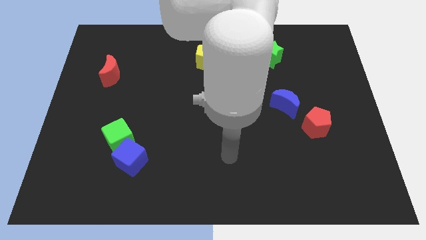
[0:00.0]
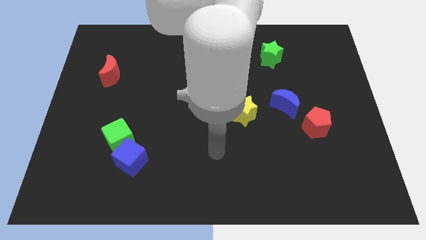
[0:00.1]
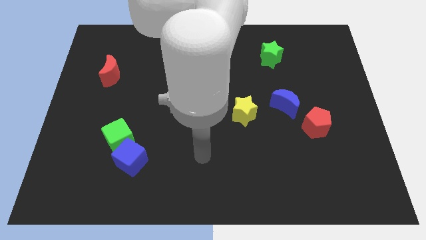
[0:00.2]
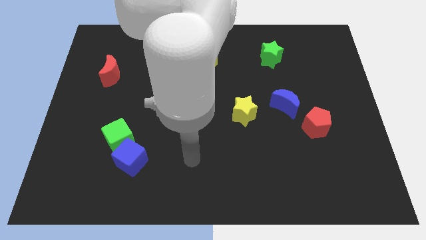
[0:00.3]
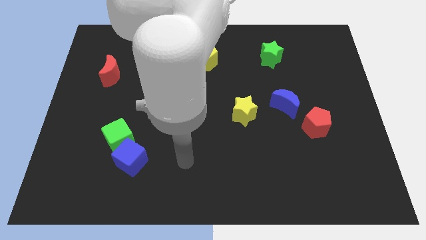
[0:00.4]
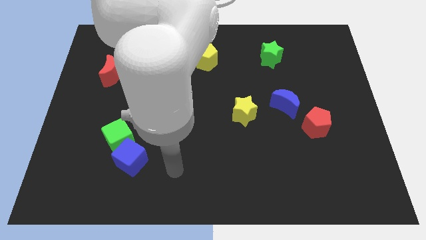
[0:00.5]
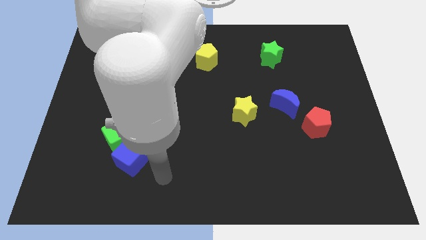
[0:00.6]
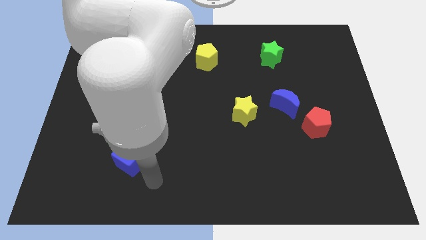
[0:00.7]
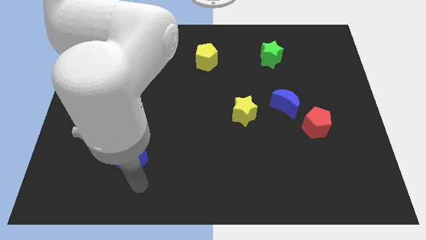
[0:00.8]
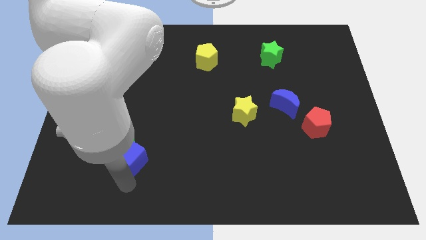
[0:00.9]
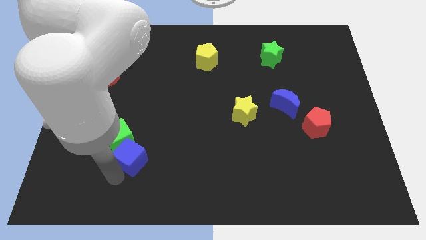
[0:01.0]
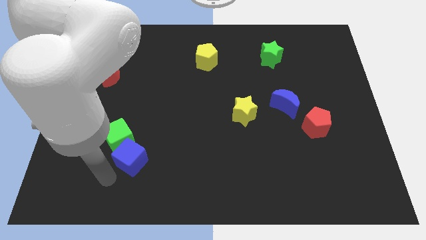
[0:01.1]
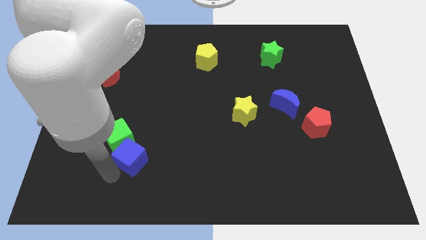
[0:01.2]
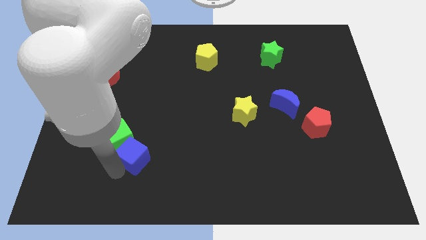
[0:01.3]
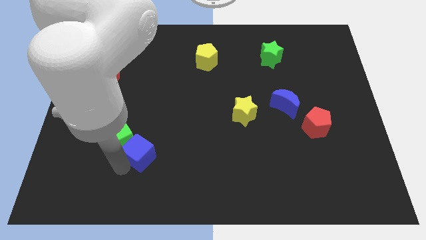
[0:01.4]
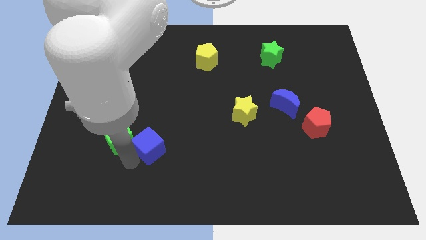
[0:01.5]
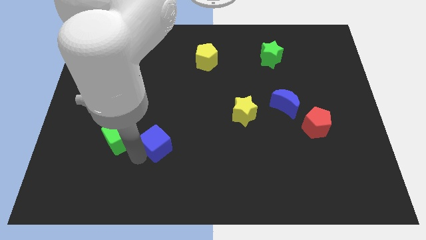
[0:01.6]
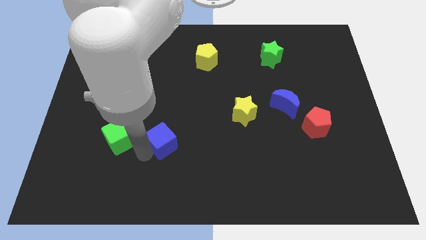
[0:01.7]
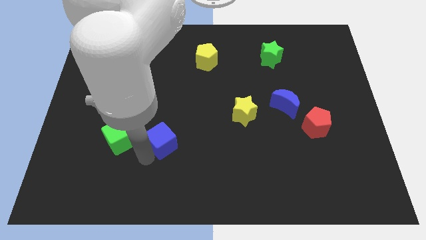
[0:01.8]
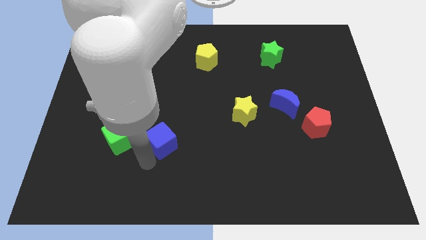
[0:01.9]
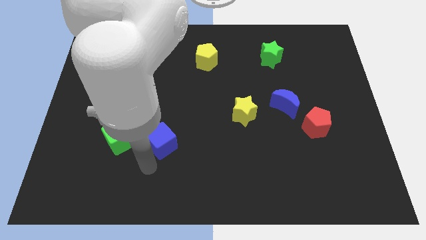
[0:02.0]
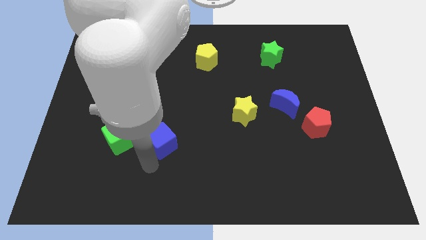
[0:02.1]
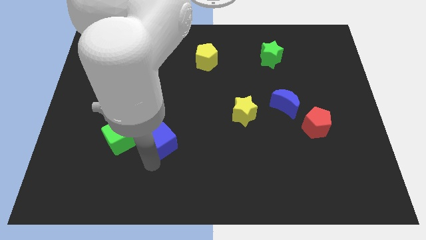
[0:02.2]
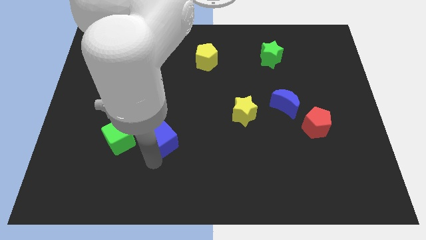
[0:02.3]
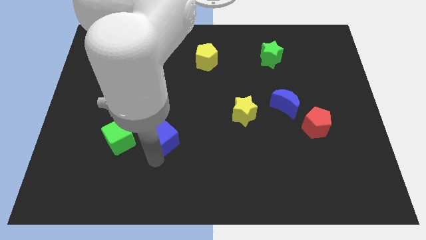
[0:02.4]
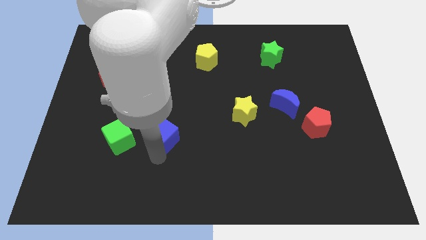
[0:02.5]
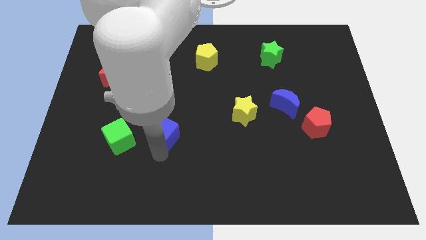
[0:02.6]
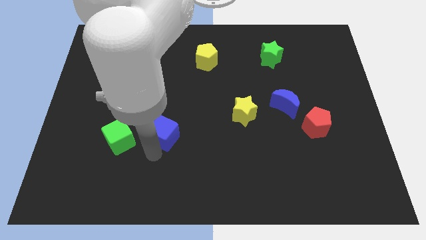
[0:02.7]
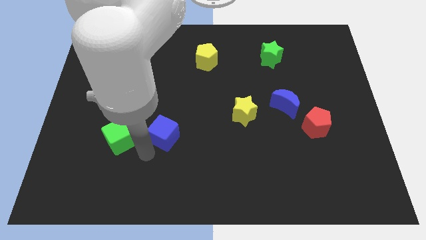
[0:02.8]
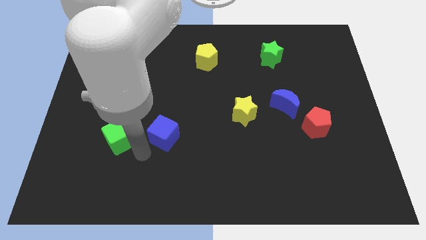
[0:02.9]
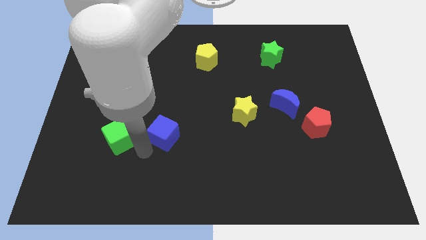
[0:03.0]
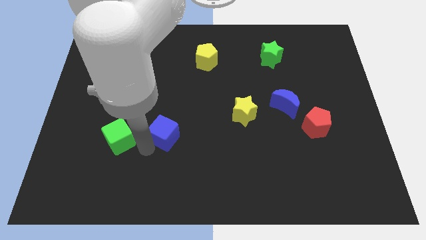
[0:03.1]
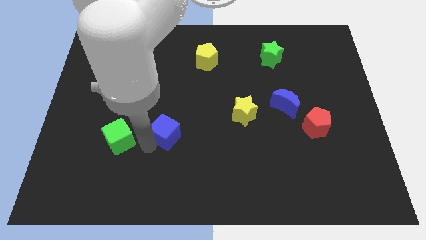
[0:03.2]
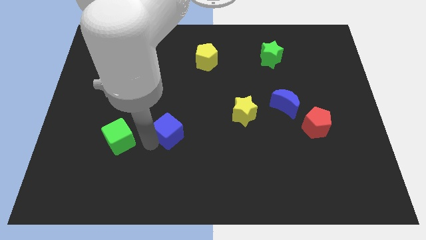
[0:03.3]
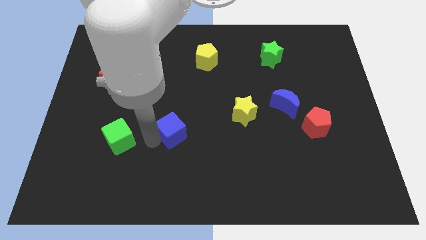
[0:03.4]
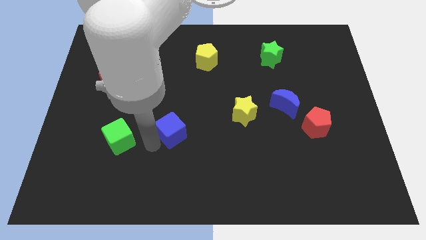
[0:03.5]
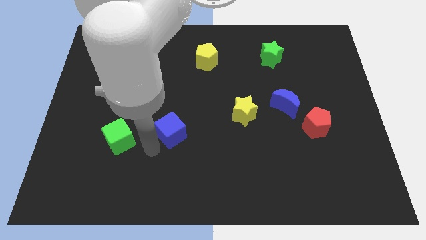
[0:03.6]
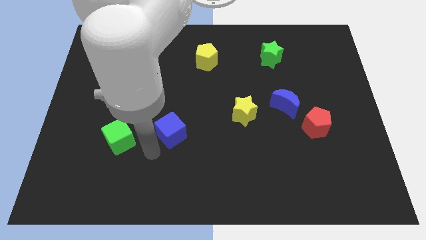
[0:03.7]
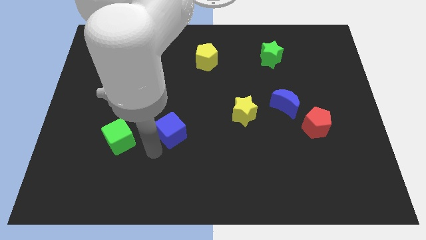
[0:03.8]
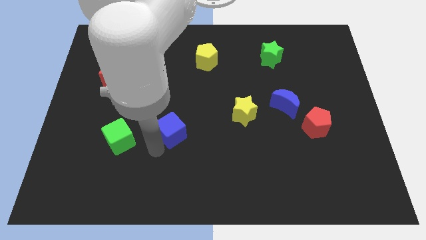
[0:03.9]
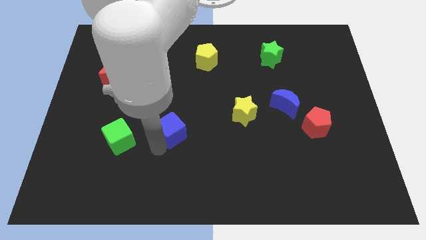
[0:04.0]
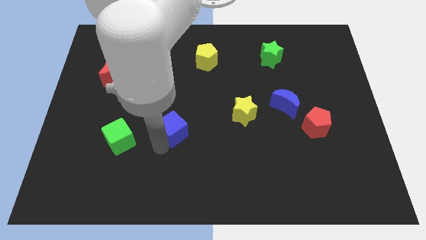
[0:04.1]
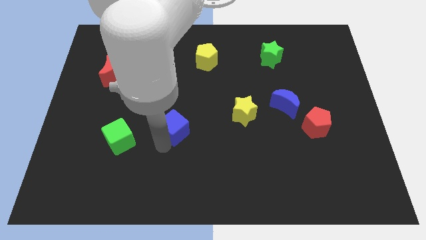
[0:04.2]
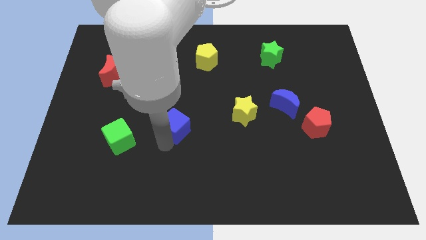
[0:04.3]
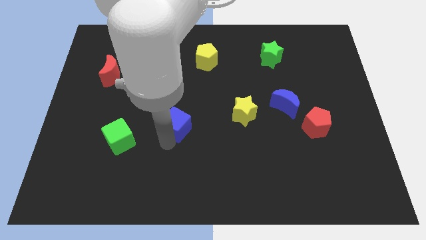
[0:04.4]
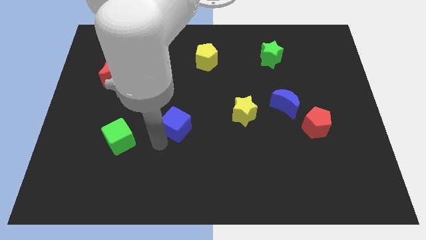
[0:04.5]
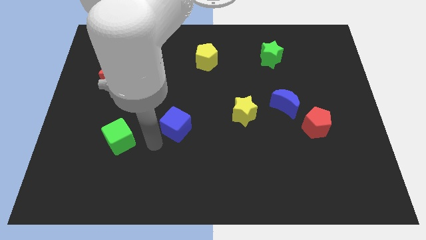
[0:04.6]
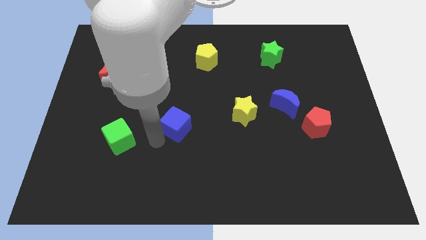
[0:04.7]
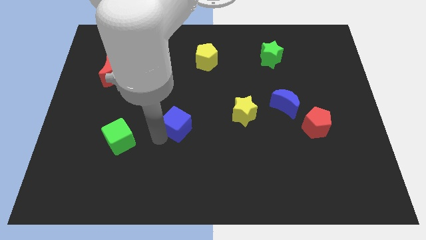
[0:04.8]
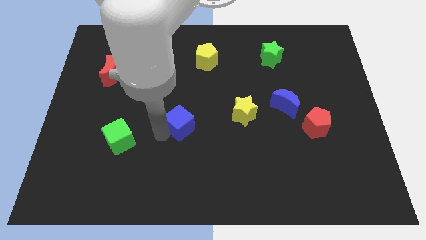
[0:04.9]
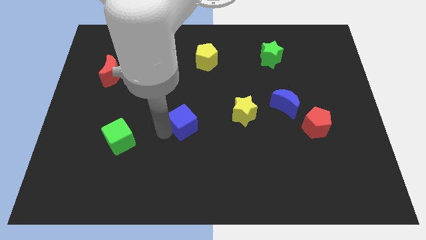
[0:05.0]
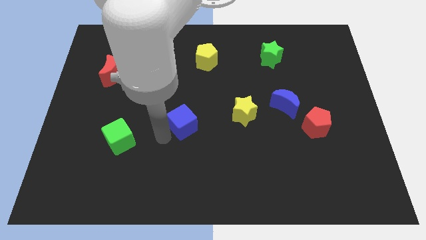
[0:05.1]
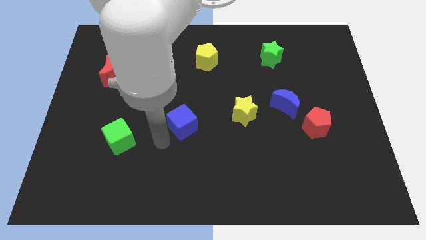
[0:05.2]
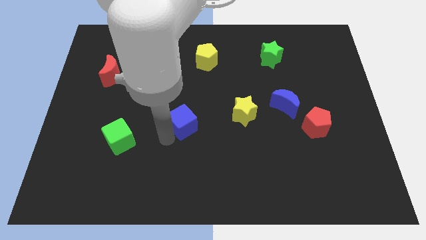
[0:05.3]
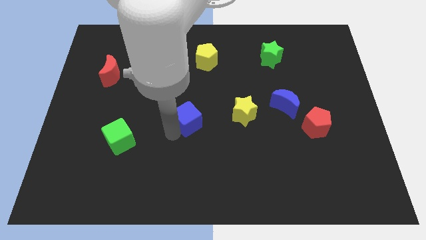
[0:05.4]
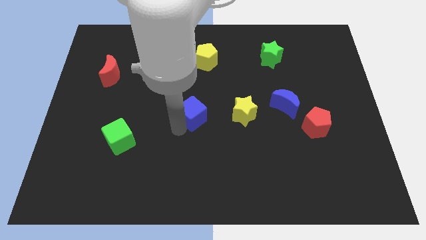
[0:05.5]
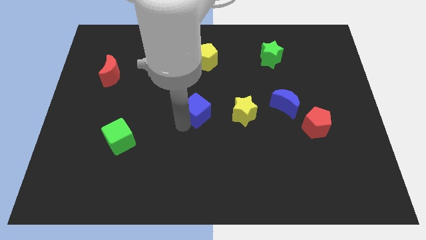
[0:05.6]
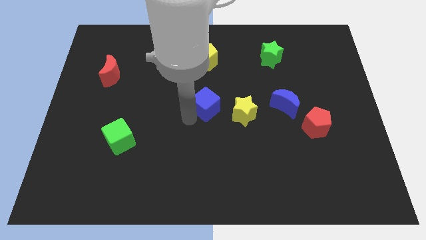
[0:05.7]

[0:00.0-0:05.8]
slide the blue cube diagonally up and to the left of the yellow star

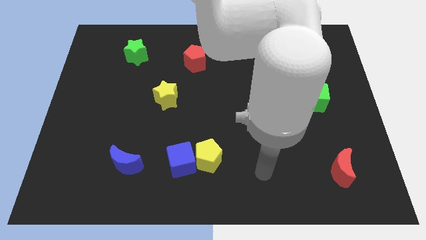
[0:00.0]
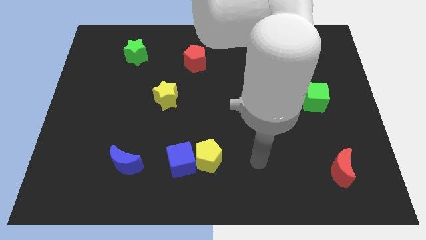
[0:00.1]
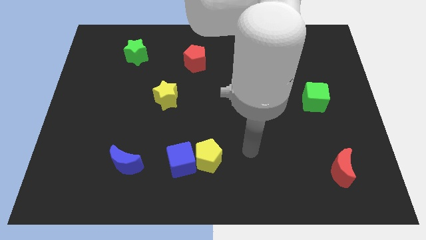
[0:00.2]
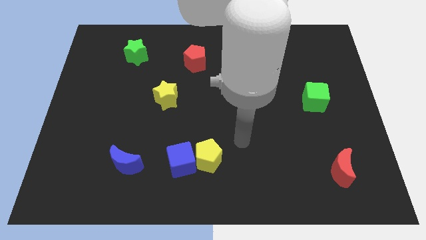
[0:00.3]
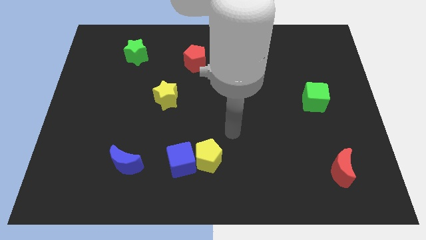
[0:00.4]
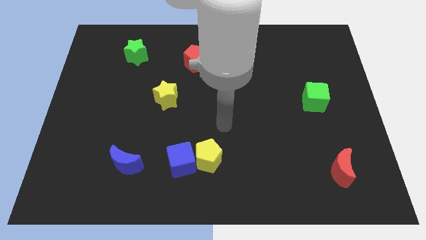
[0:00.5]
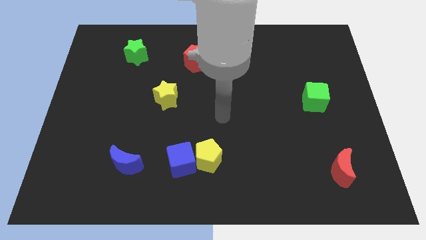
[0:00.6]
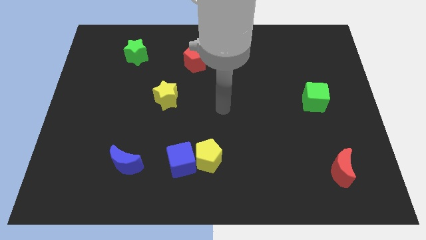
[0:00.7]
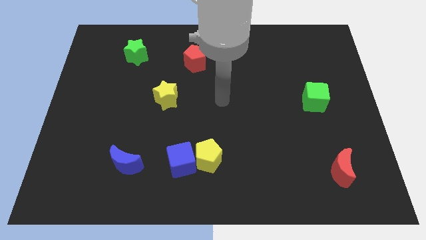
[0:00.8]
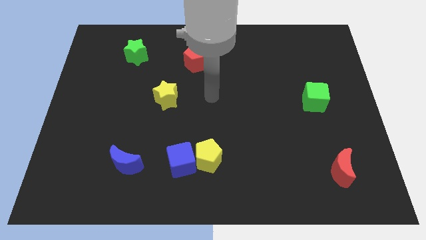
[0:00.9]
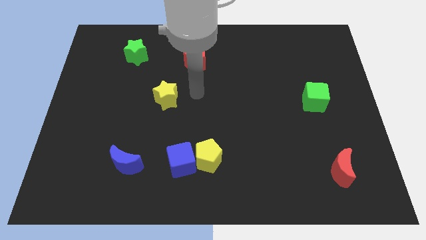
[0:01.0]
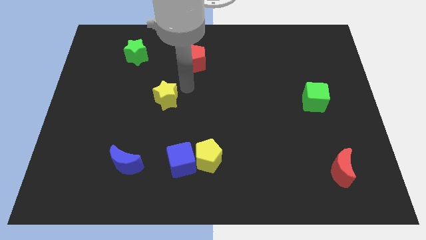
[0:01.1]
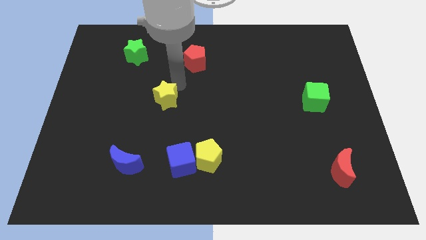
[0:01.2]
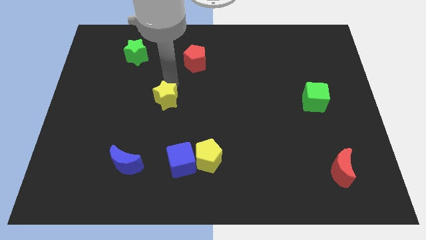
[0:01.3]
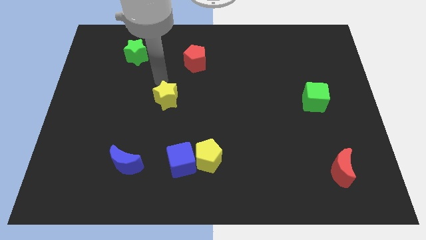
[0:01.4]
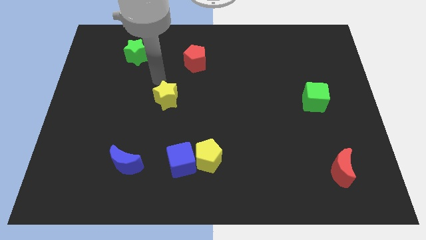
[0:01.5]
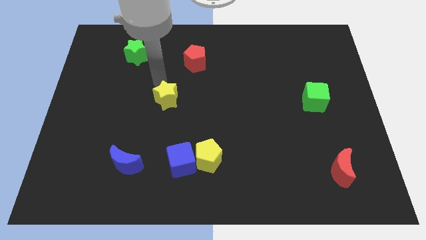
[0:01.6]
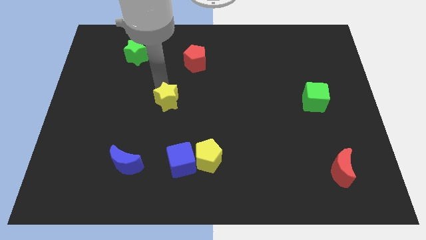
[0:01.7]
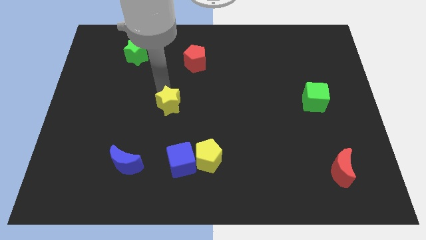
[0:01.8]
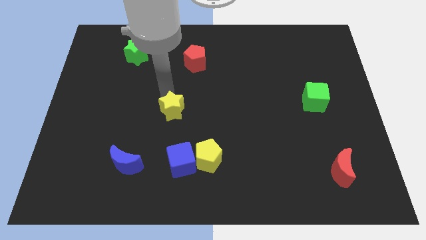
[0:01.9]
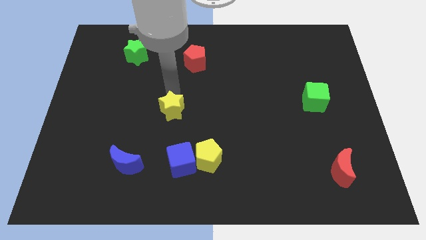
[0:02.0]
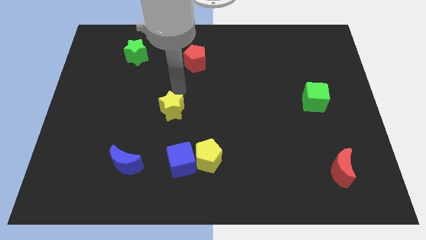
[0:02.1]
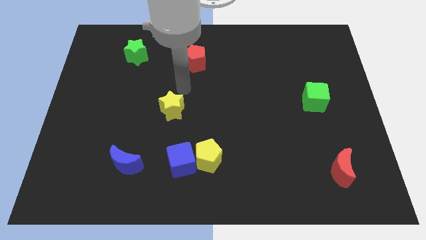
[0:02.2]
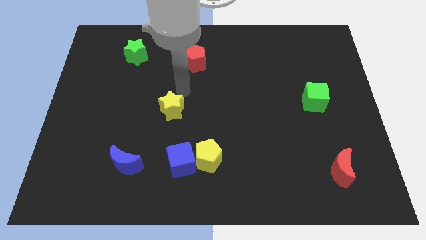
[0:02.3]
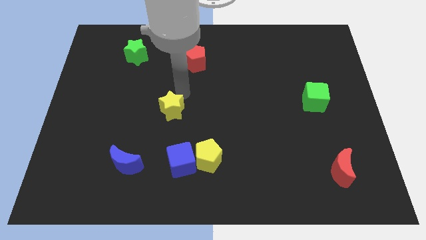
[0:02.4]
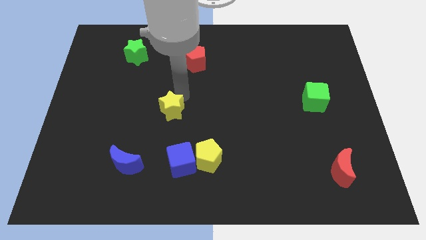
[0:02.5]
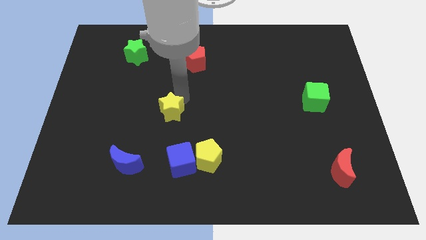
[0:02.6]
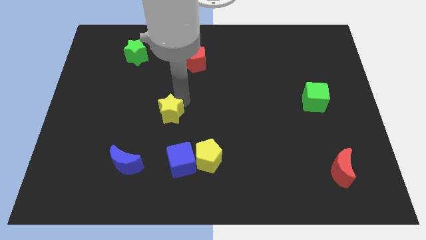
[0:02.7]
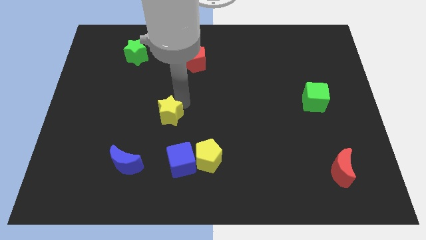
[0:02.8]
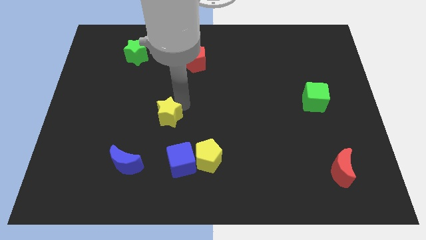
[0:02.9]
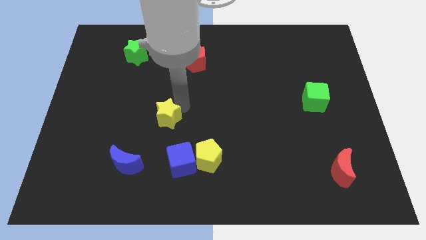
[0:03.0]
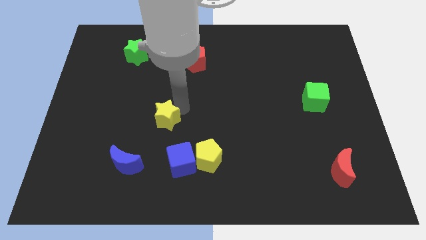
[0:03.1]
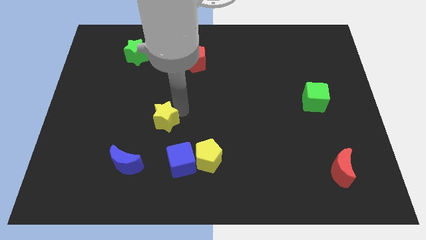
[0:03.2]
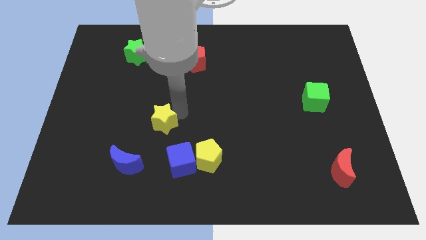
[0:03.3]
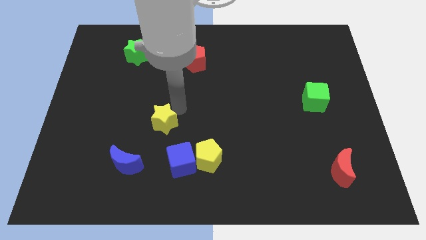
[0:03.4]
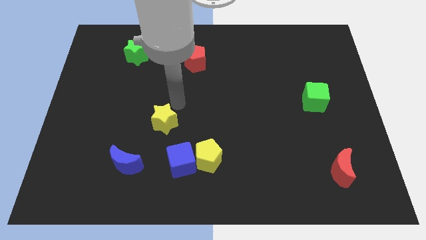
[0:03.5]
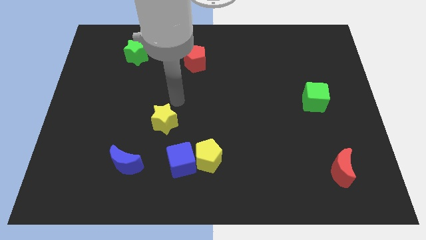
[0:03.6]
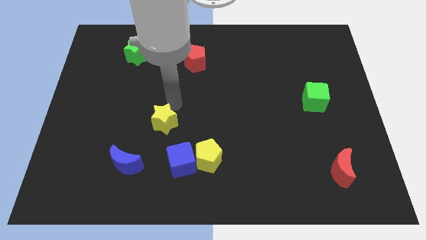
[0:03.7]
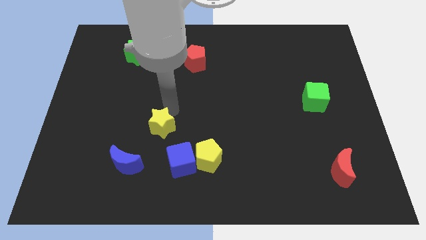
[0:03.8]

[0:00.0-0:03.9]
slide the yellow star diagonally up and to the right of the blue moon
